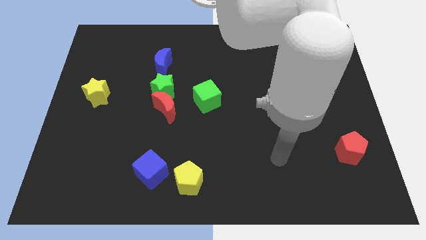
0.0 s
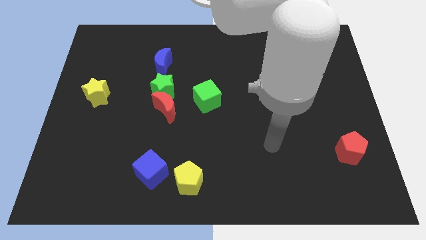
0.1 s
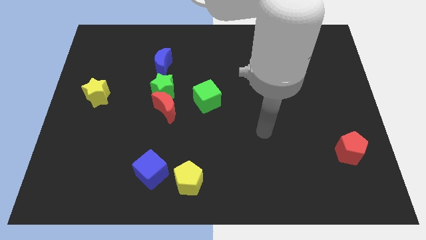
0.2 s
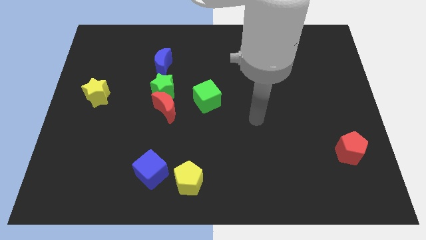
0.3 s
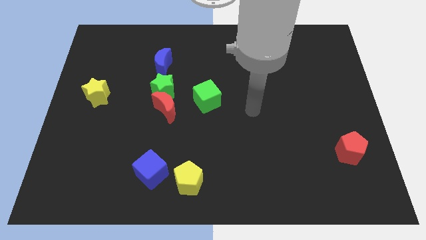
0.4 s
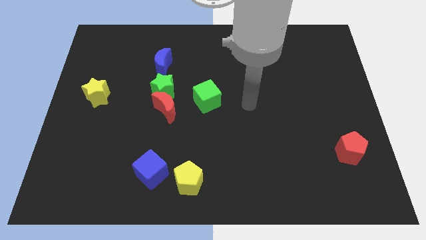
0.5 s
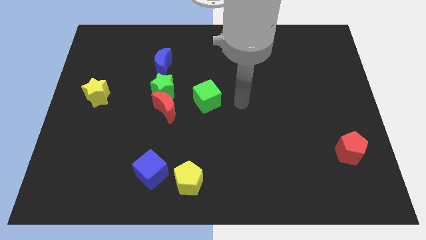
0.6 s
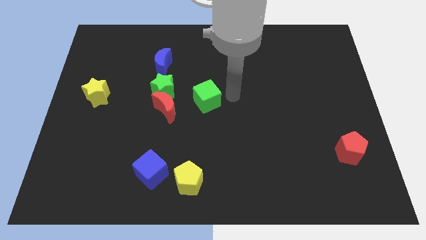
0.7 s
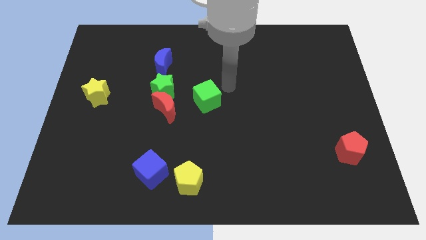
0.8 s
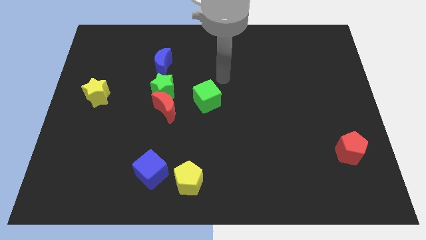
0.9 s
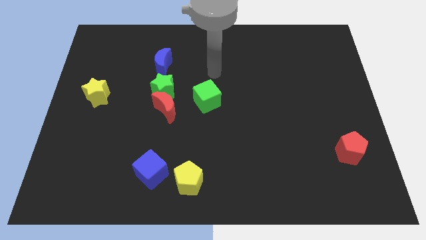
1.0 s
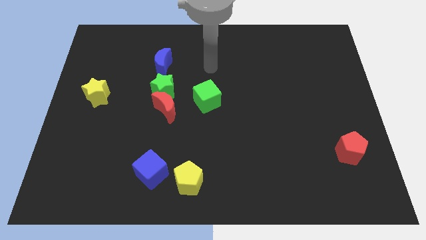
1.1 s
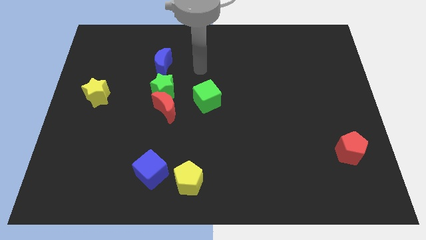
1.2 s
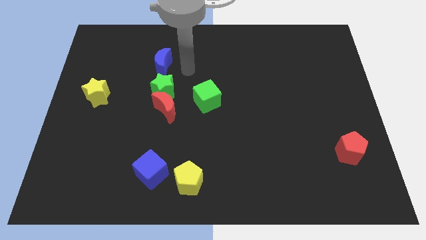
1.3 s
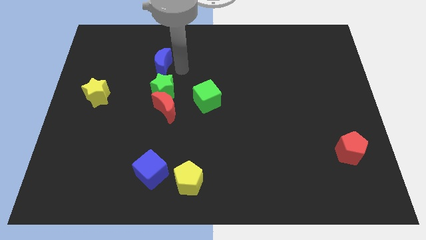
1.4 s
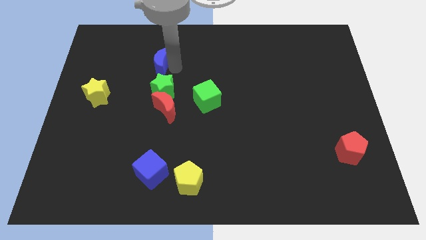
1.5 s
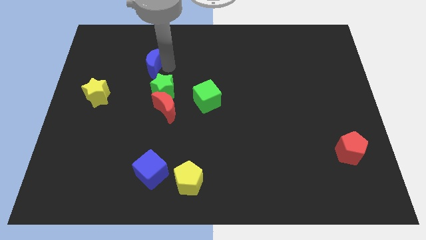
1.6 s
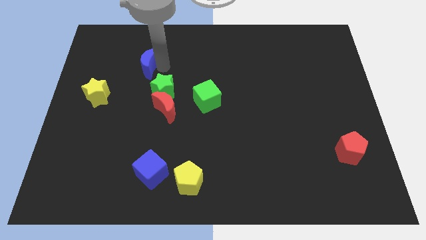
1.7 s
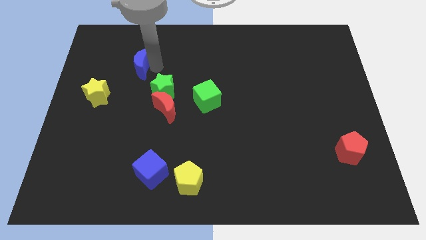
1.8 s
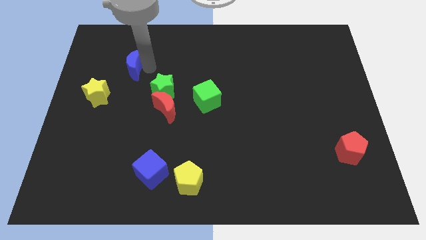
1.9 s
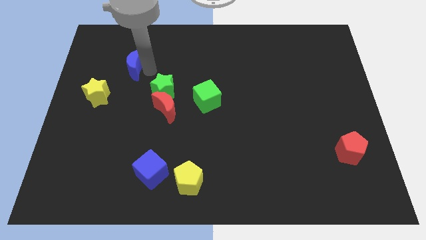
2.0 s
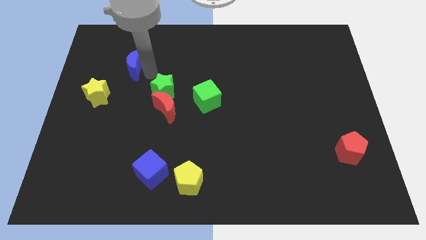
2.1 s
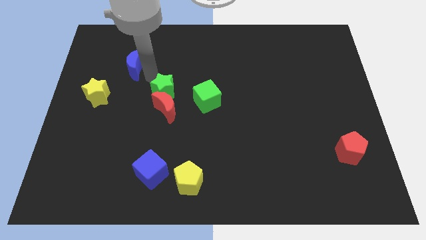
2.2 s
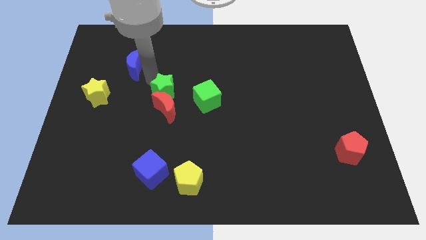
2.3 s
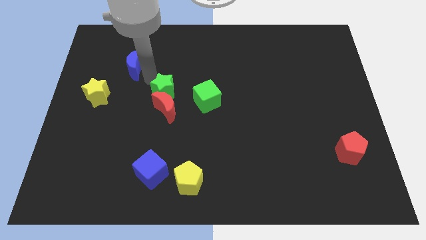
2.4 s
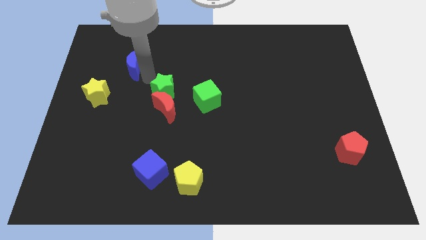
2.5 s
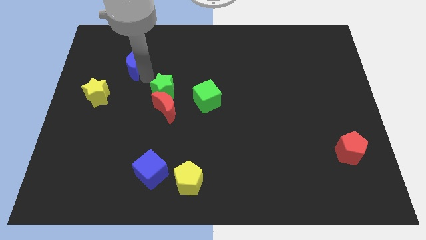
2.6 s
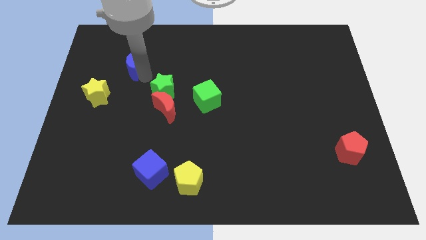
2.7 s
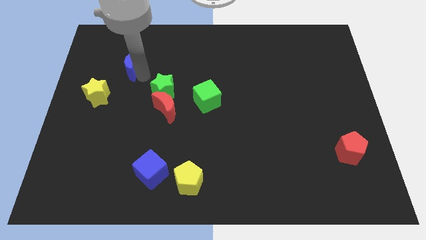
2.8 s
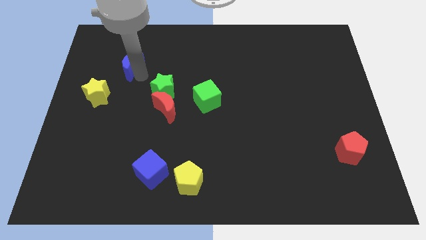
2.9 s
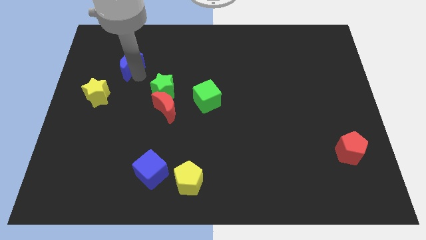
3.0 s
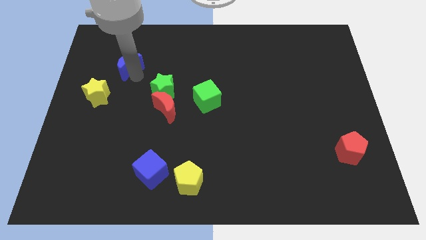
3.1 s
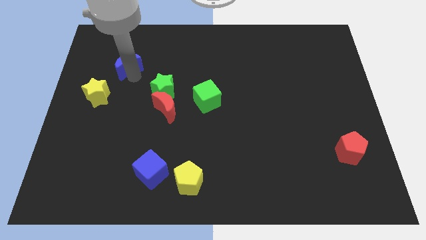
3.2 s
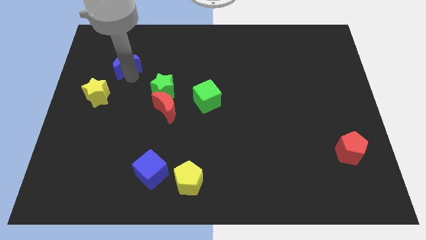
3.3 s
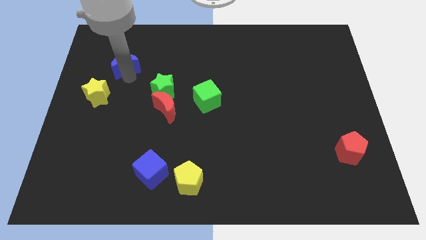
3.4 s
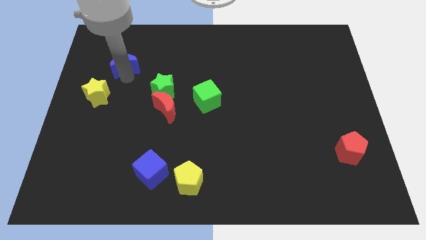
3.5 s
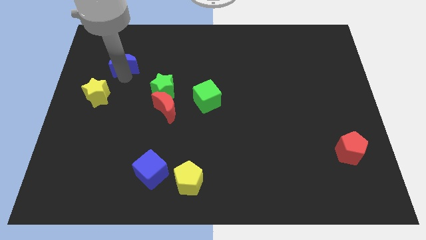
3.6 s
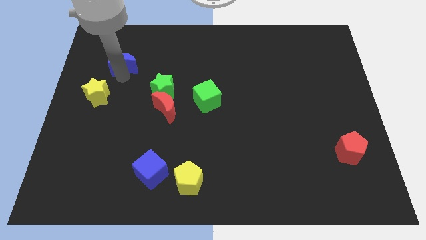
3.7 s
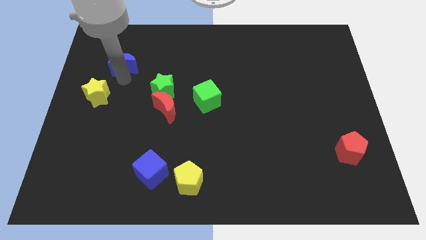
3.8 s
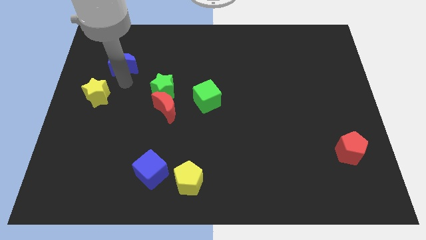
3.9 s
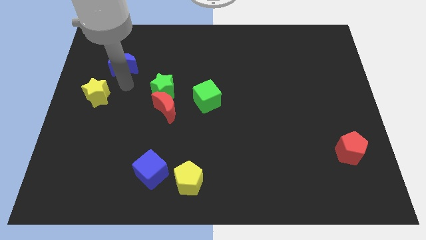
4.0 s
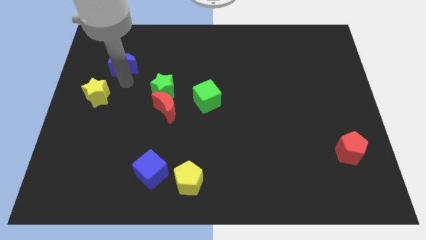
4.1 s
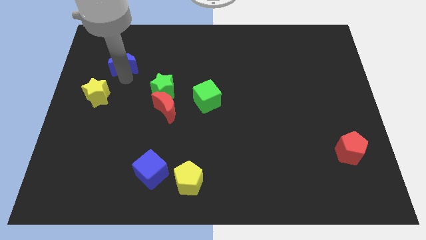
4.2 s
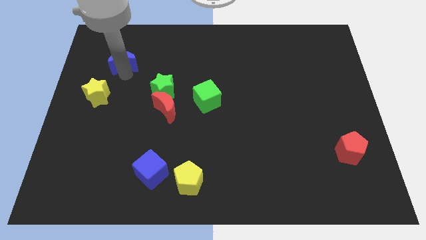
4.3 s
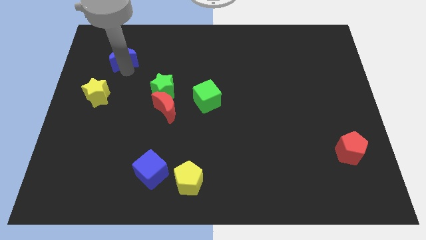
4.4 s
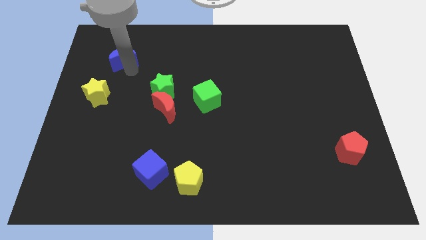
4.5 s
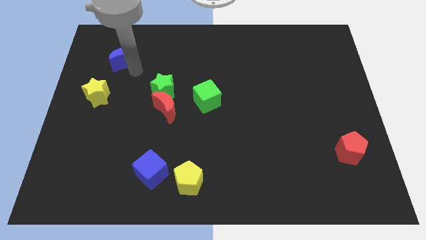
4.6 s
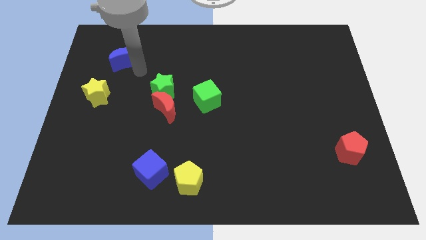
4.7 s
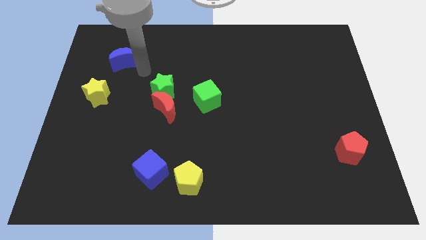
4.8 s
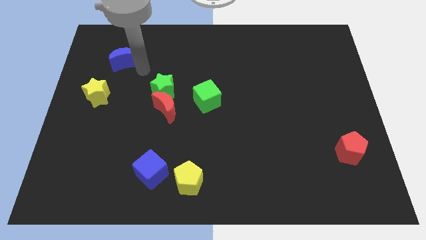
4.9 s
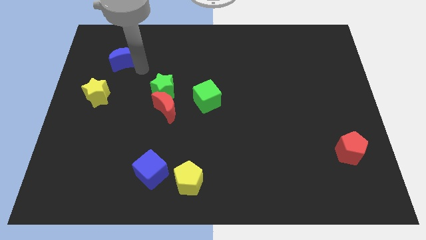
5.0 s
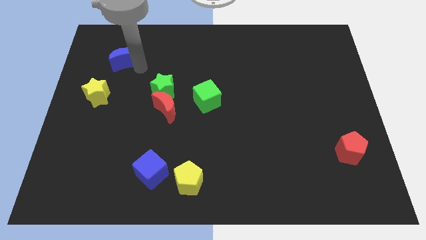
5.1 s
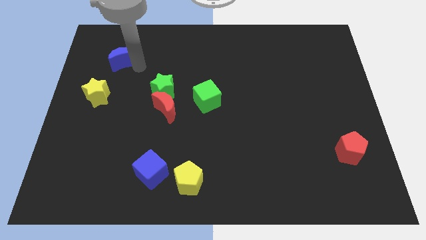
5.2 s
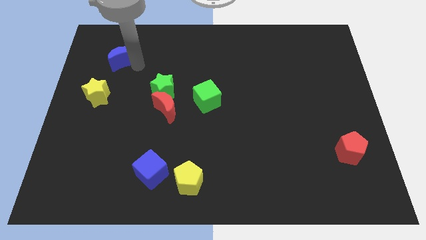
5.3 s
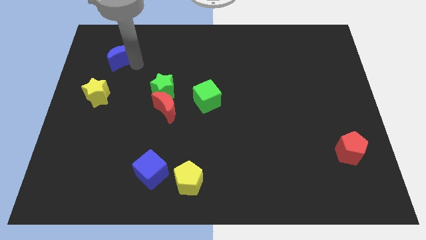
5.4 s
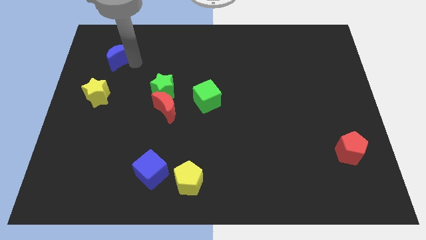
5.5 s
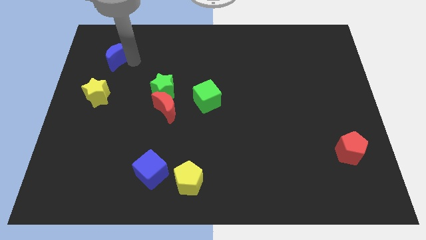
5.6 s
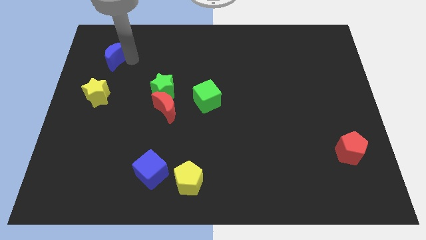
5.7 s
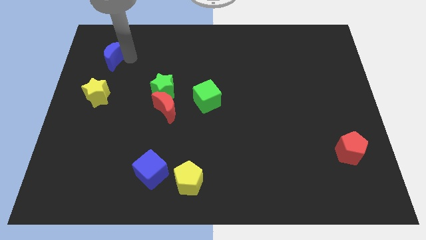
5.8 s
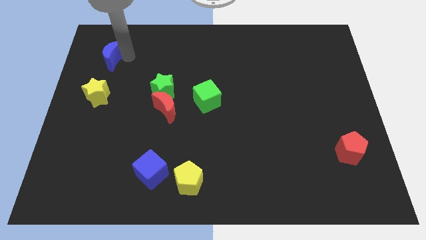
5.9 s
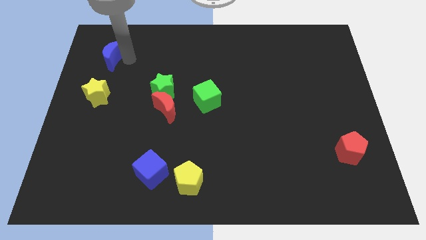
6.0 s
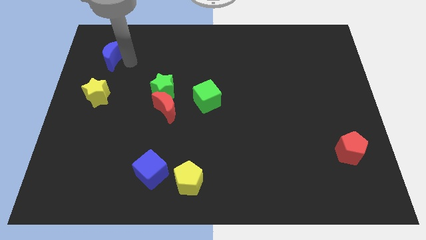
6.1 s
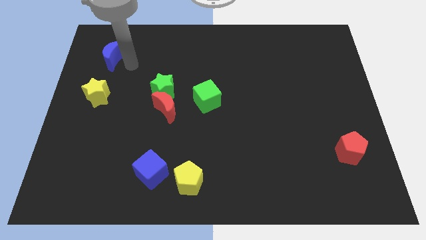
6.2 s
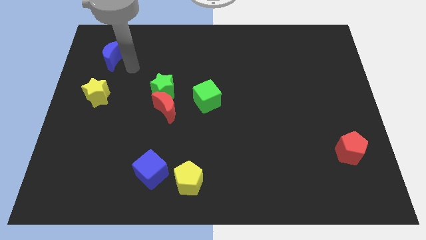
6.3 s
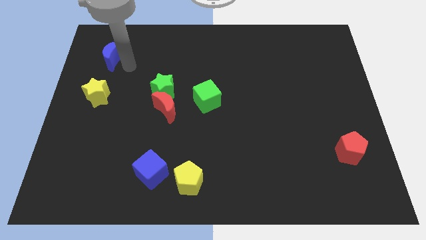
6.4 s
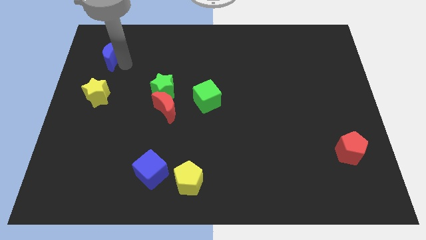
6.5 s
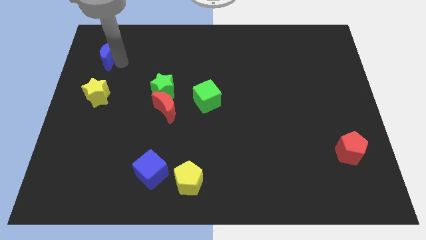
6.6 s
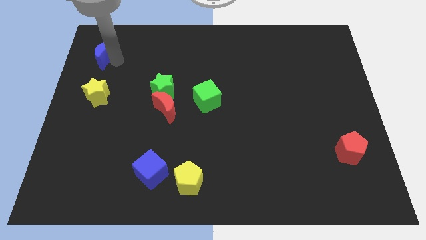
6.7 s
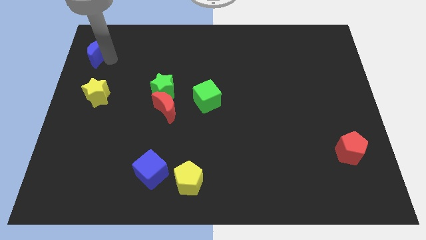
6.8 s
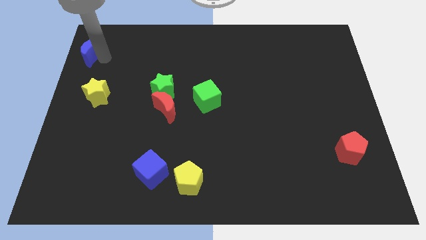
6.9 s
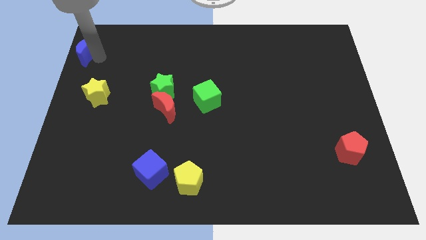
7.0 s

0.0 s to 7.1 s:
move the blue moon to the top left
